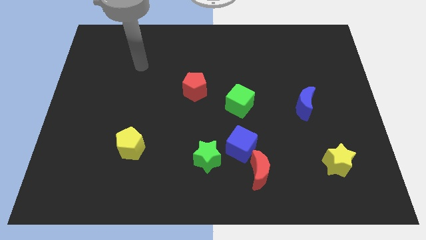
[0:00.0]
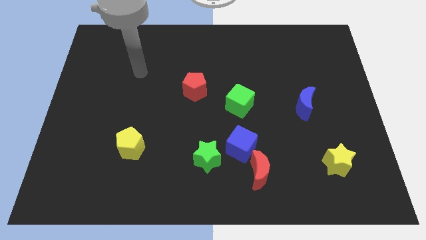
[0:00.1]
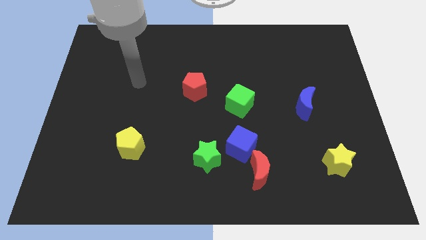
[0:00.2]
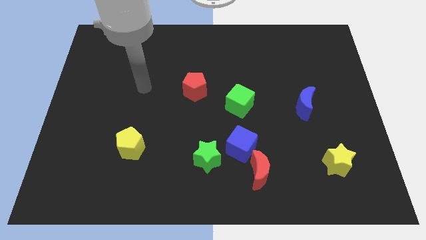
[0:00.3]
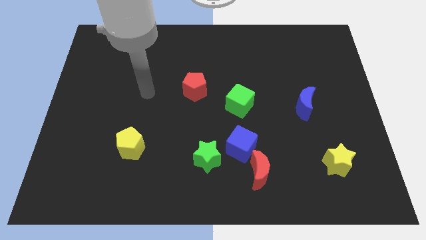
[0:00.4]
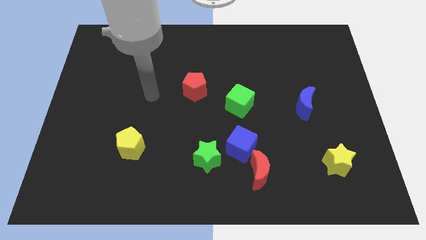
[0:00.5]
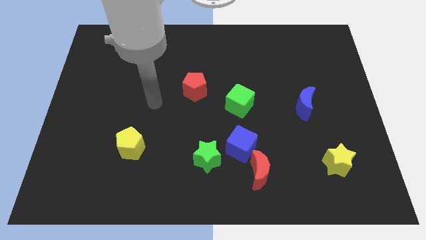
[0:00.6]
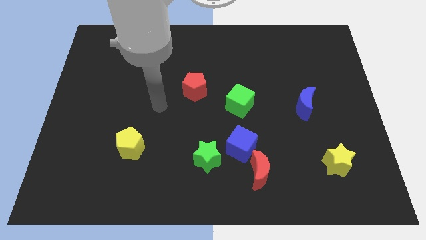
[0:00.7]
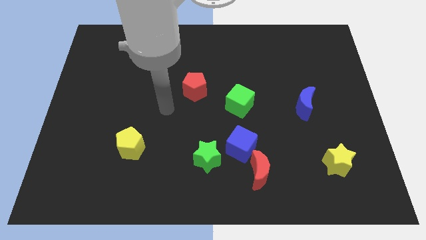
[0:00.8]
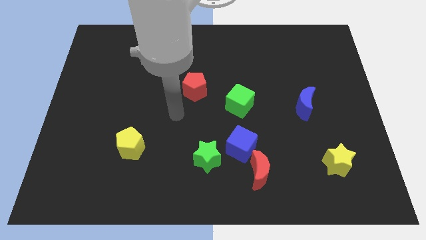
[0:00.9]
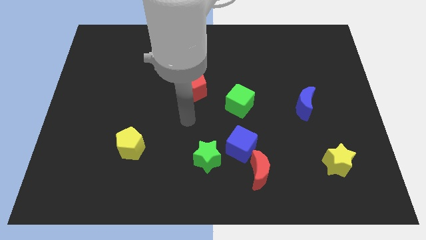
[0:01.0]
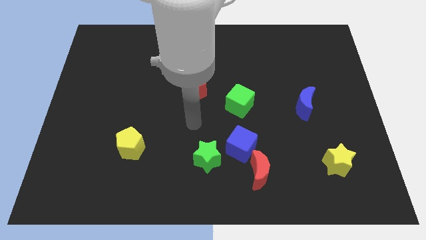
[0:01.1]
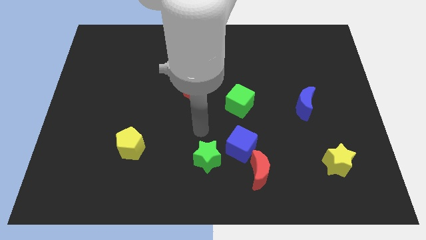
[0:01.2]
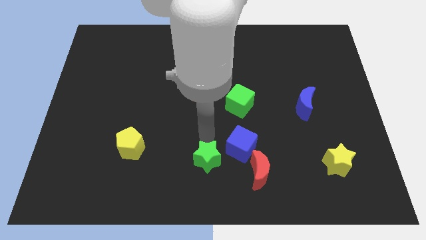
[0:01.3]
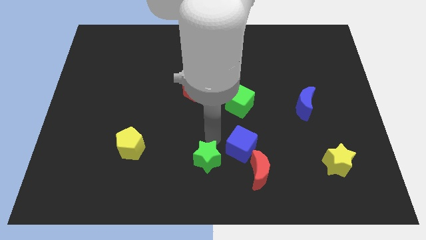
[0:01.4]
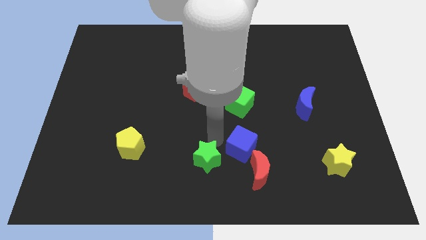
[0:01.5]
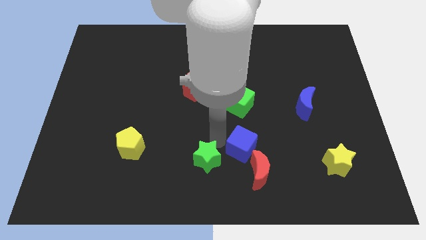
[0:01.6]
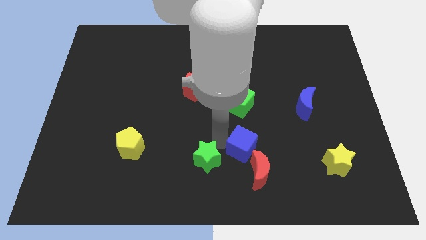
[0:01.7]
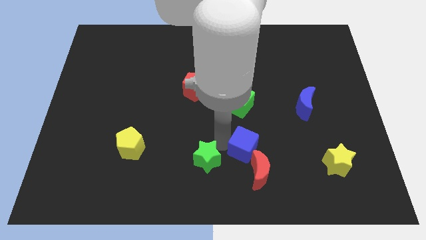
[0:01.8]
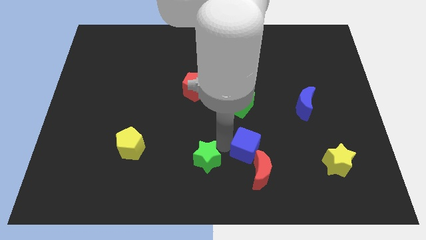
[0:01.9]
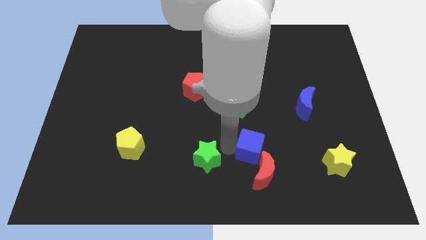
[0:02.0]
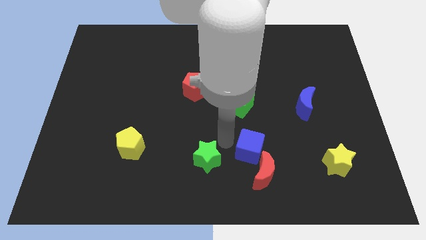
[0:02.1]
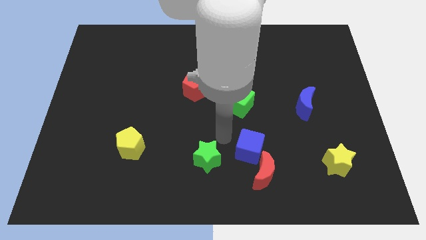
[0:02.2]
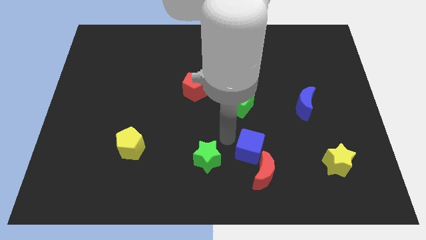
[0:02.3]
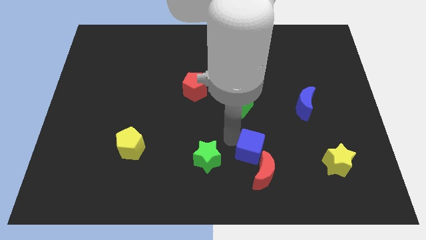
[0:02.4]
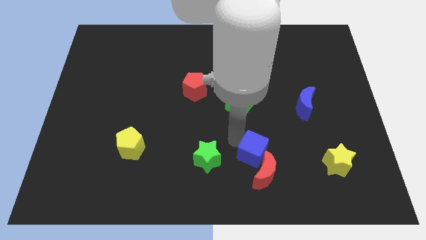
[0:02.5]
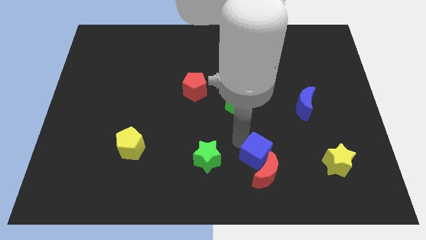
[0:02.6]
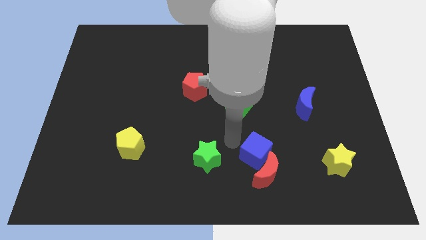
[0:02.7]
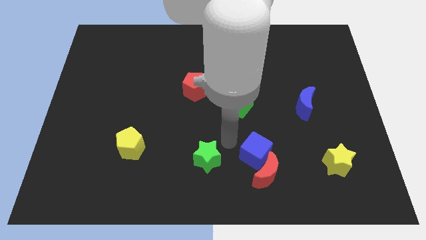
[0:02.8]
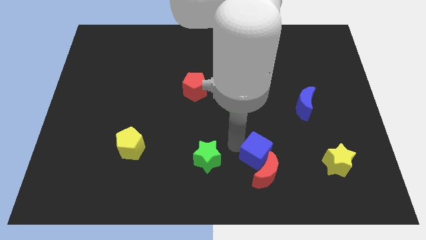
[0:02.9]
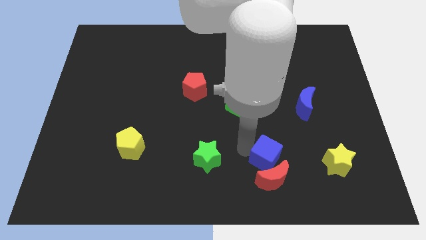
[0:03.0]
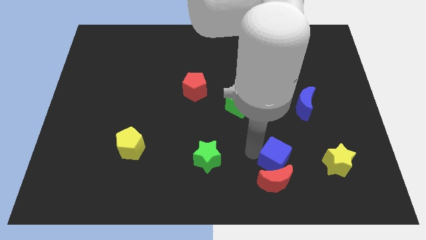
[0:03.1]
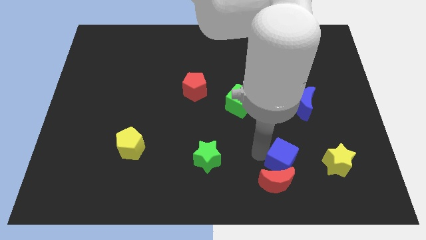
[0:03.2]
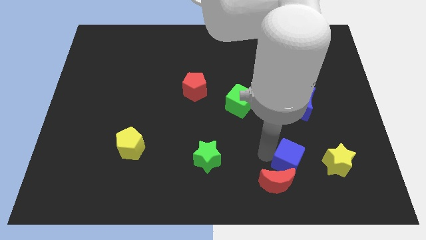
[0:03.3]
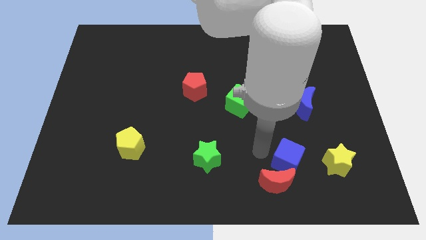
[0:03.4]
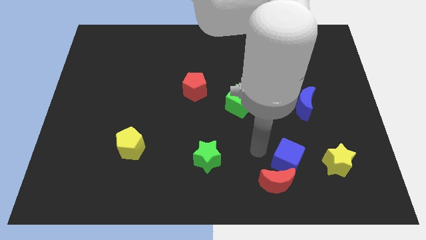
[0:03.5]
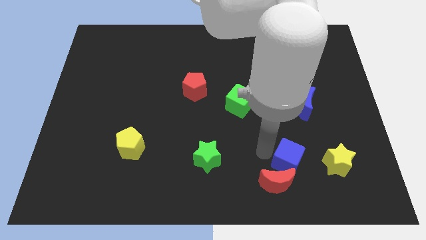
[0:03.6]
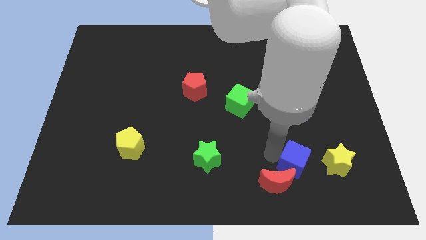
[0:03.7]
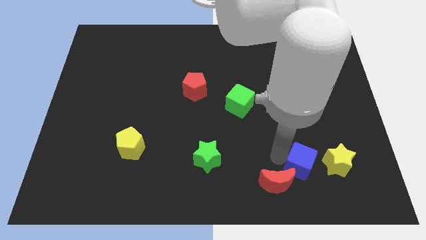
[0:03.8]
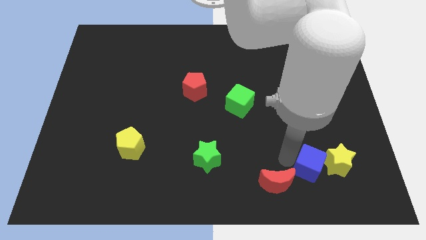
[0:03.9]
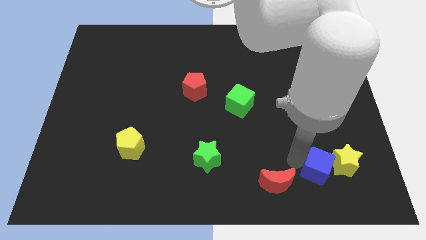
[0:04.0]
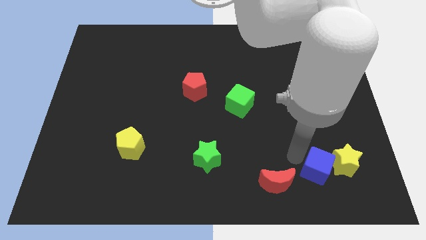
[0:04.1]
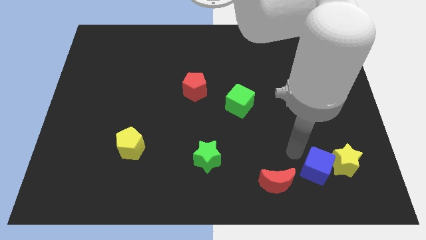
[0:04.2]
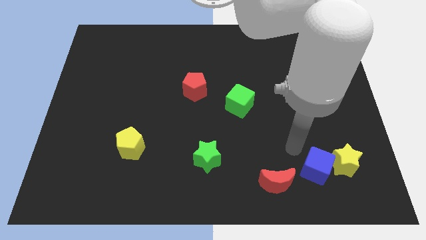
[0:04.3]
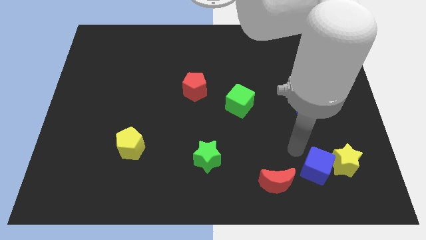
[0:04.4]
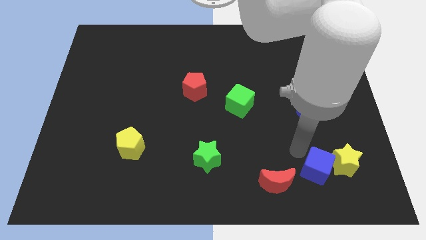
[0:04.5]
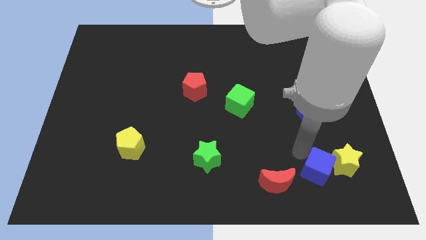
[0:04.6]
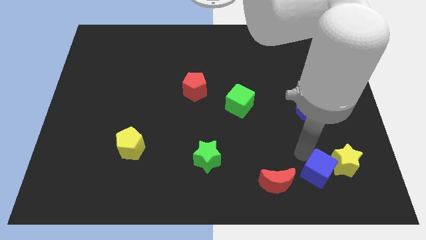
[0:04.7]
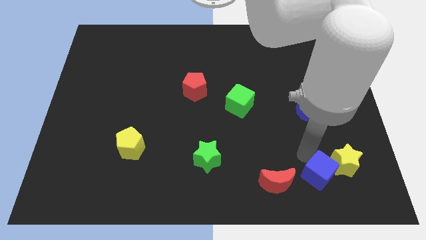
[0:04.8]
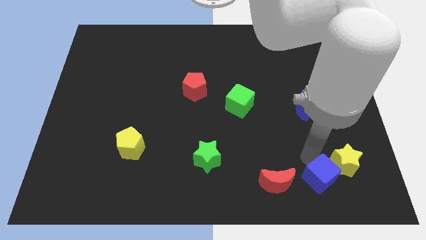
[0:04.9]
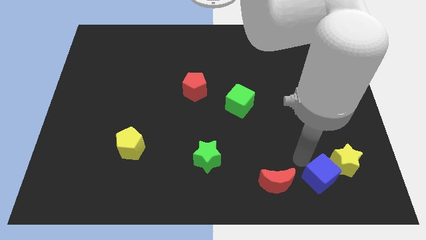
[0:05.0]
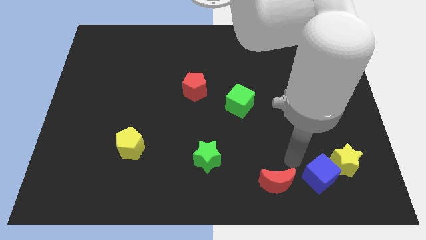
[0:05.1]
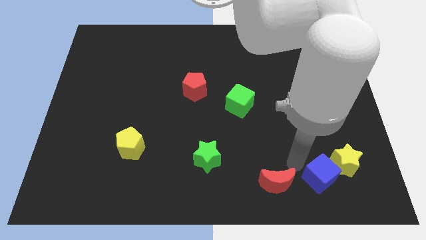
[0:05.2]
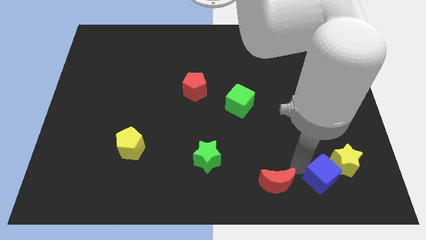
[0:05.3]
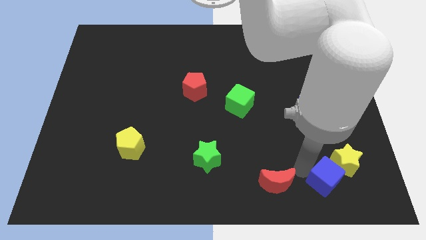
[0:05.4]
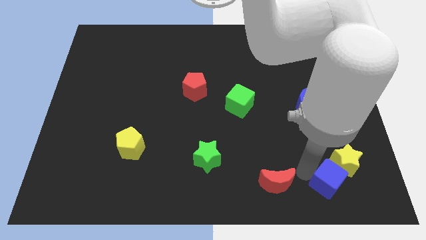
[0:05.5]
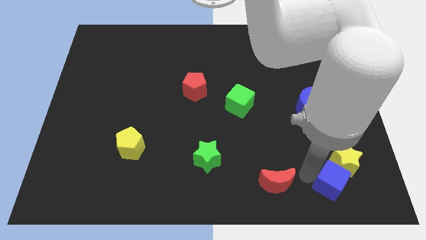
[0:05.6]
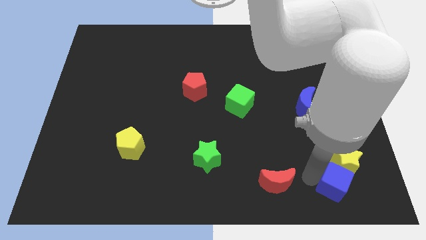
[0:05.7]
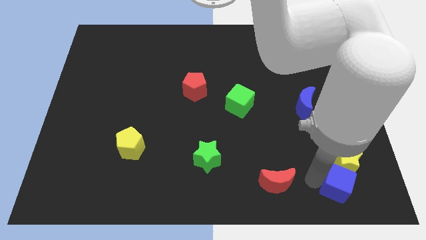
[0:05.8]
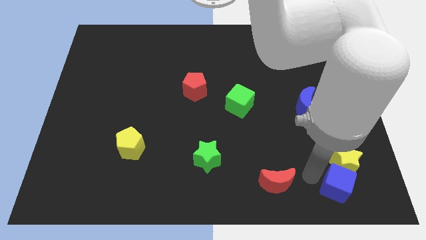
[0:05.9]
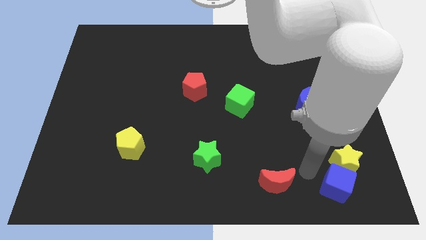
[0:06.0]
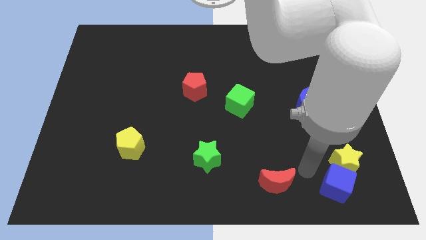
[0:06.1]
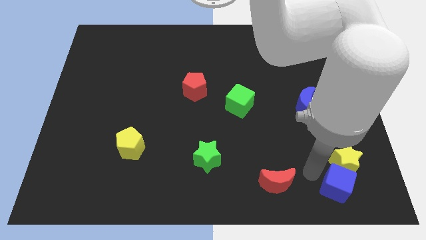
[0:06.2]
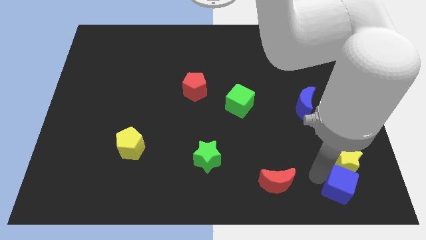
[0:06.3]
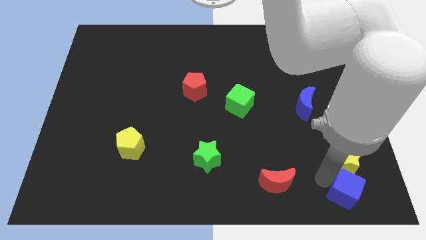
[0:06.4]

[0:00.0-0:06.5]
push the blue cube to the bottom right
